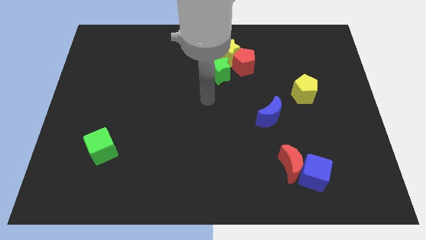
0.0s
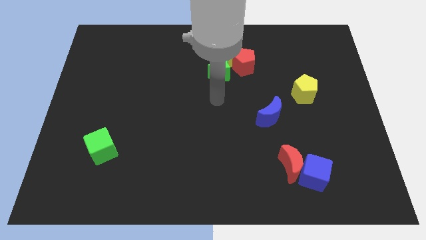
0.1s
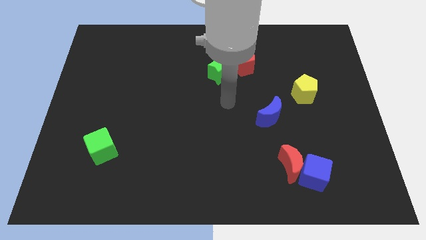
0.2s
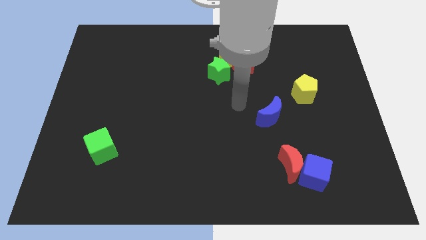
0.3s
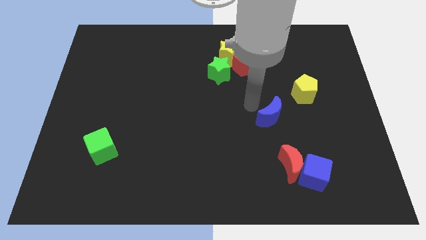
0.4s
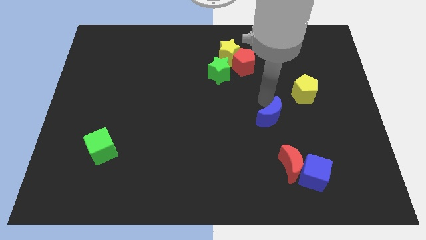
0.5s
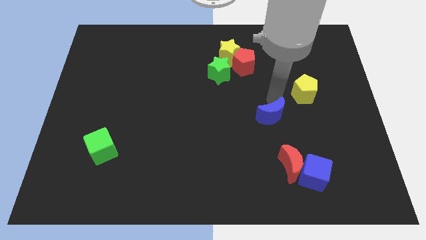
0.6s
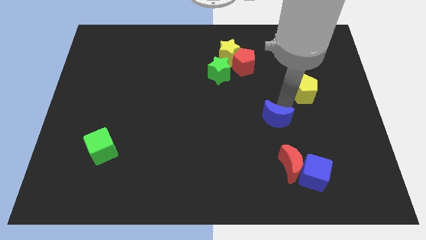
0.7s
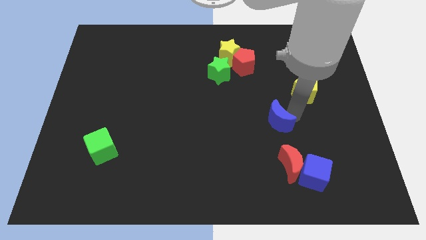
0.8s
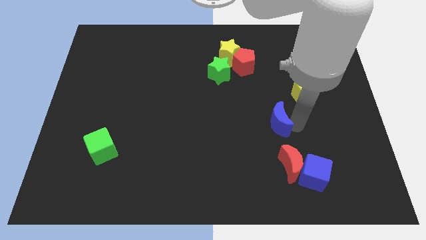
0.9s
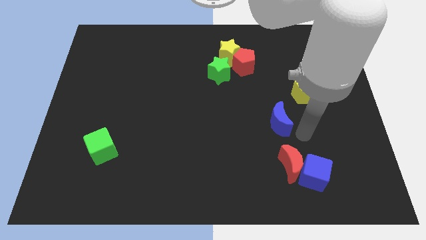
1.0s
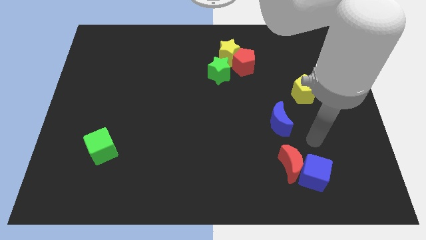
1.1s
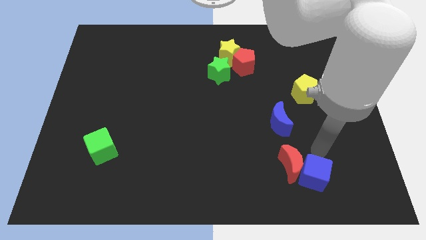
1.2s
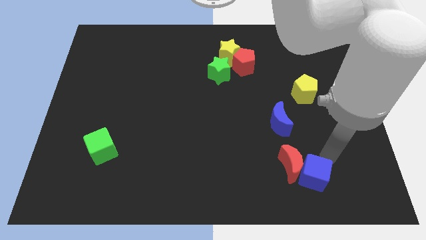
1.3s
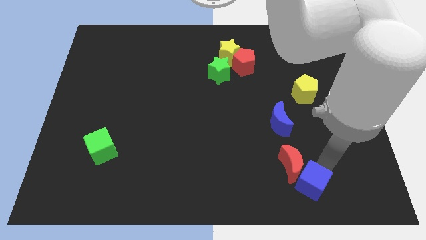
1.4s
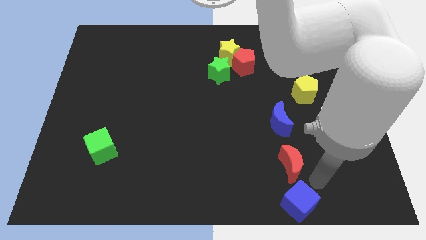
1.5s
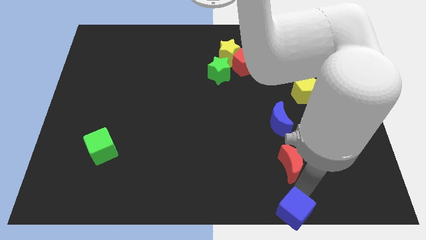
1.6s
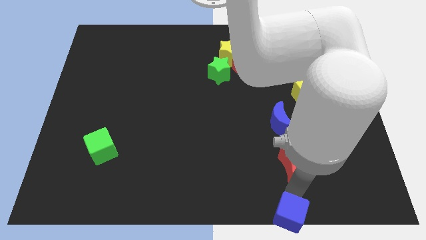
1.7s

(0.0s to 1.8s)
separate the red moon from the blue cube

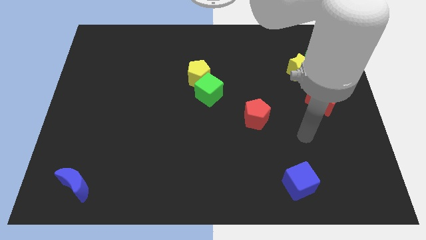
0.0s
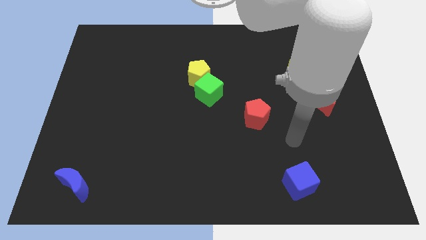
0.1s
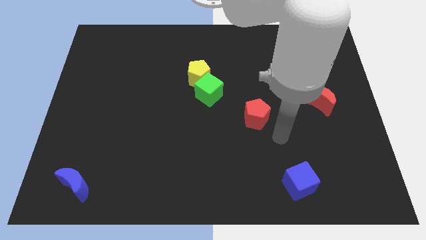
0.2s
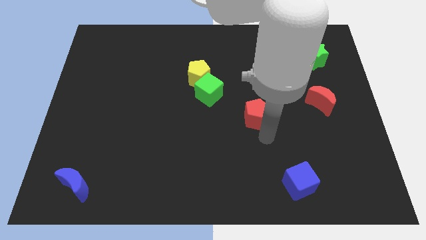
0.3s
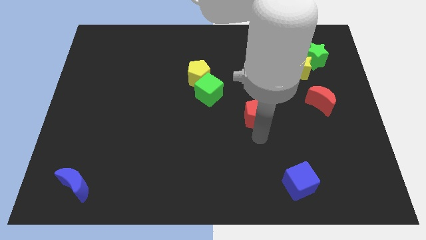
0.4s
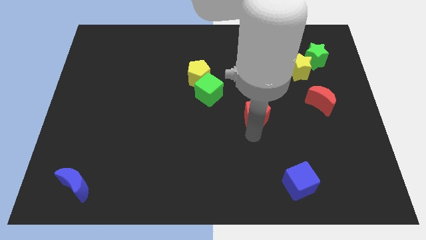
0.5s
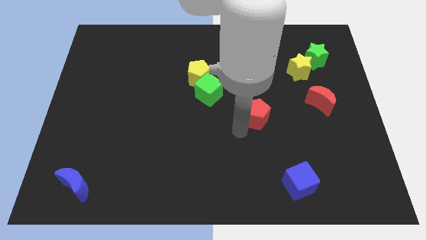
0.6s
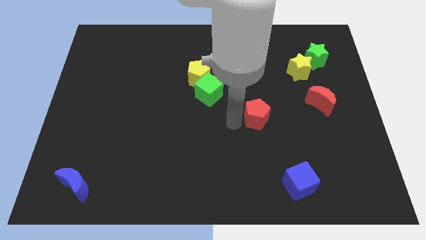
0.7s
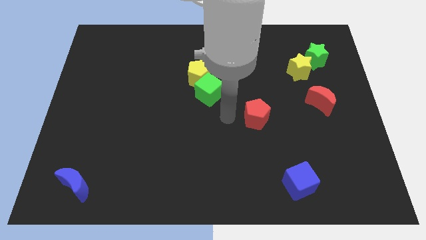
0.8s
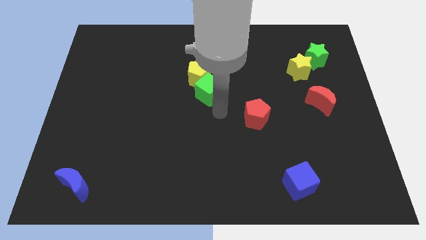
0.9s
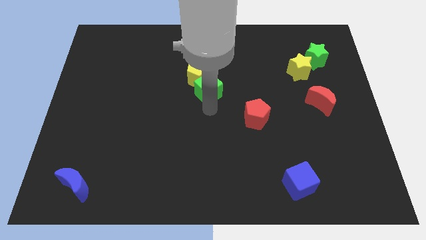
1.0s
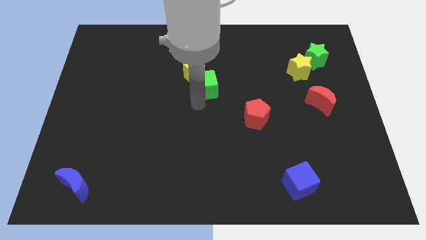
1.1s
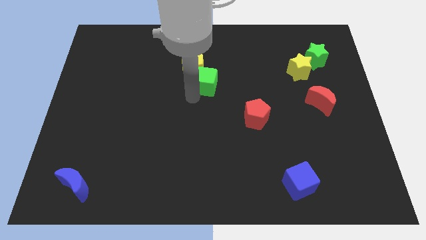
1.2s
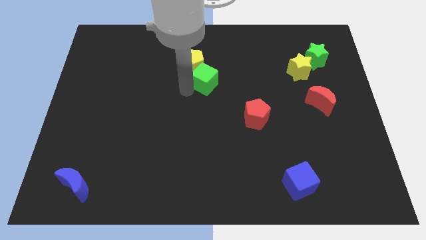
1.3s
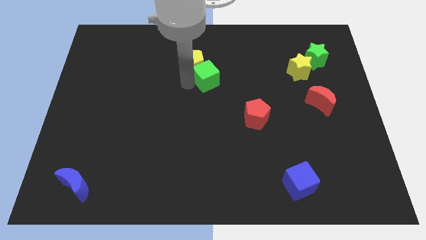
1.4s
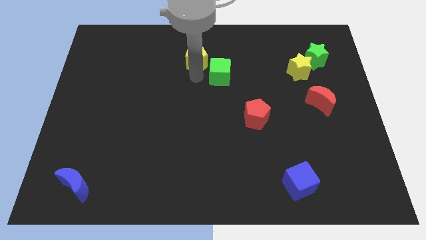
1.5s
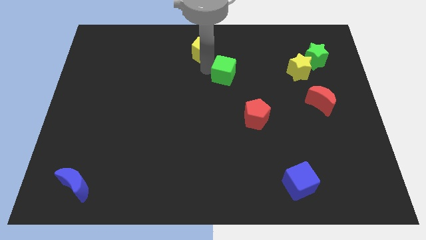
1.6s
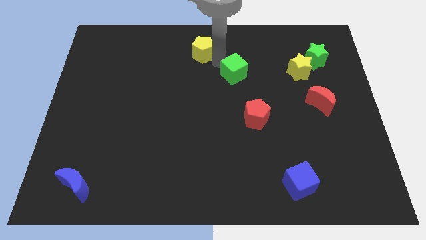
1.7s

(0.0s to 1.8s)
move the green cube away from the yellow pentagon

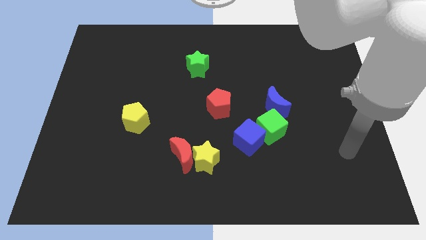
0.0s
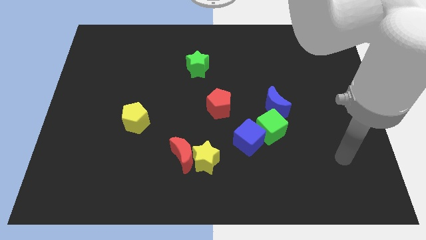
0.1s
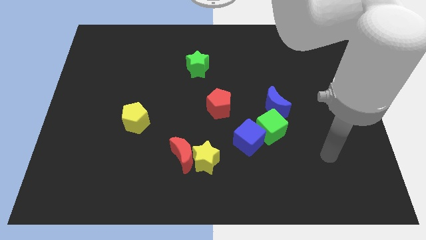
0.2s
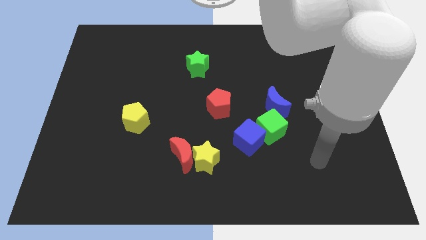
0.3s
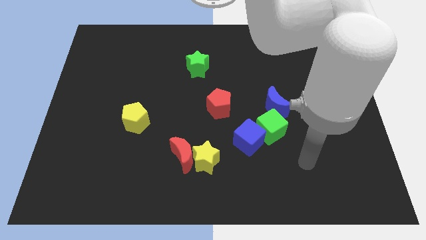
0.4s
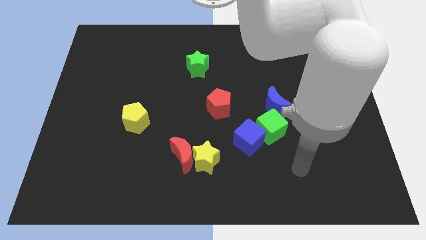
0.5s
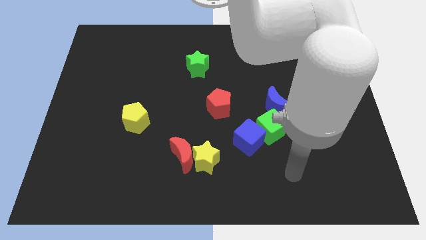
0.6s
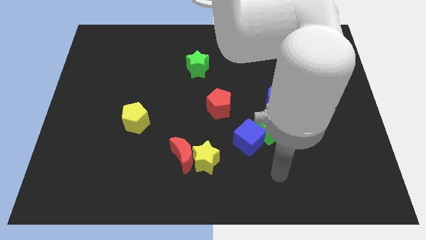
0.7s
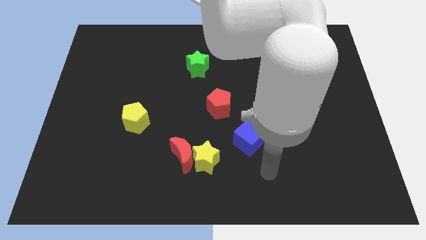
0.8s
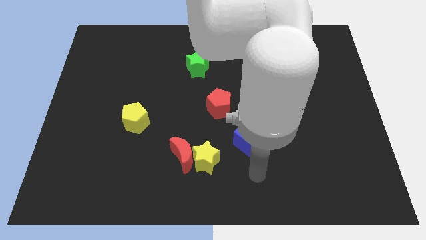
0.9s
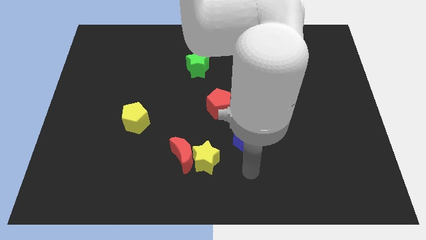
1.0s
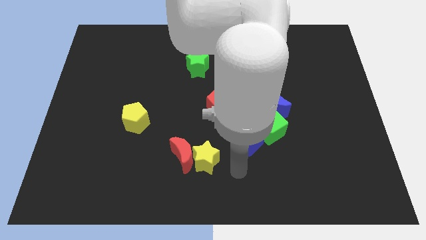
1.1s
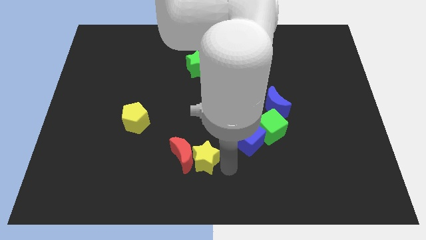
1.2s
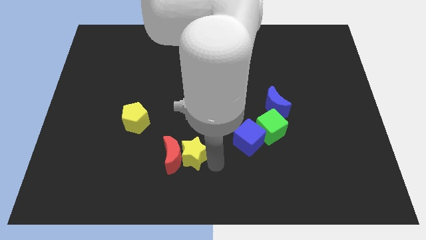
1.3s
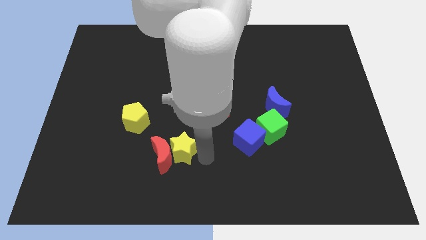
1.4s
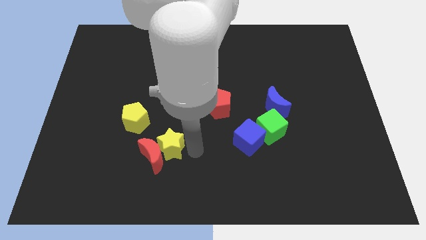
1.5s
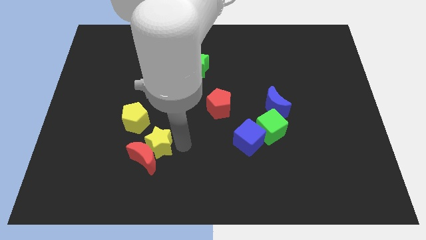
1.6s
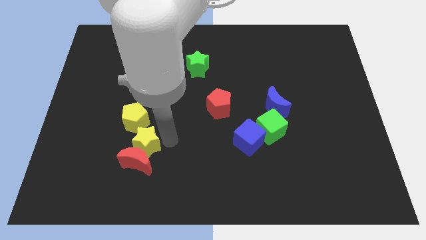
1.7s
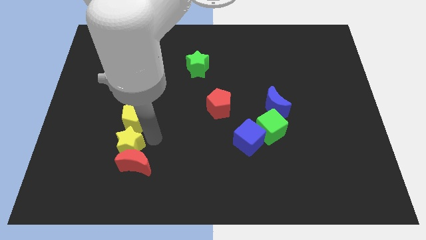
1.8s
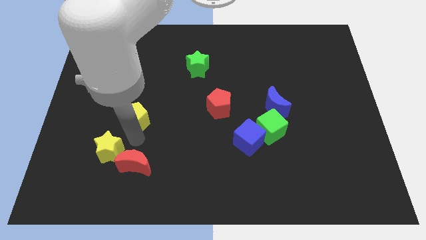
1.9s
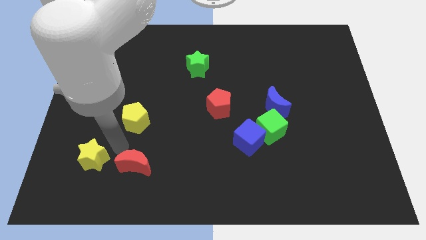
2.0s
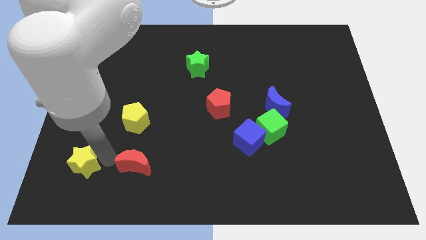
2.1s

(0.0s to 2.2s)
pull the red moon apart from the yellow star

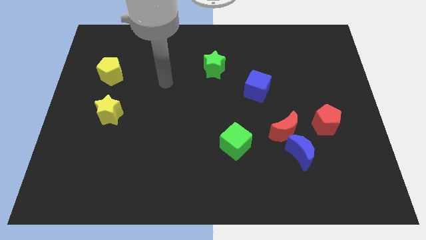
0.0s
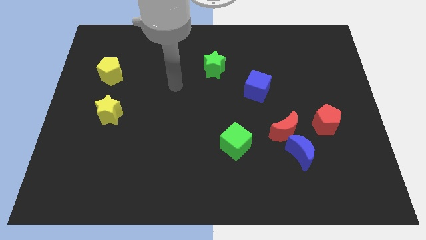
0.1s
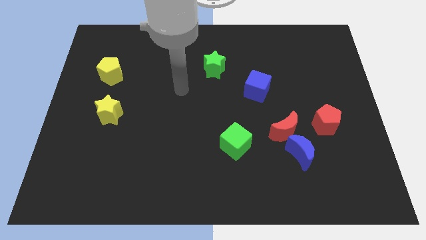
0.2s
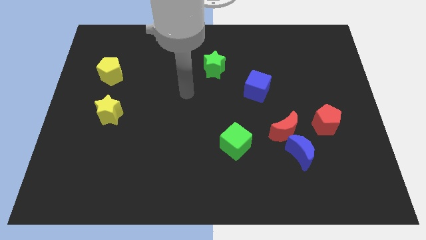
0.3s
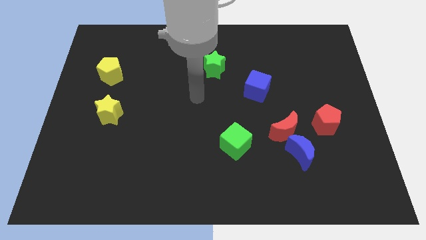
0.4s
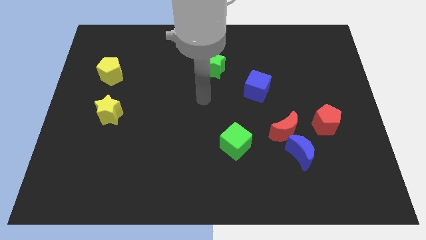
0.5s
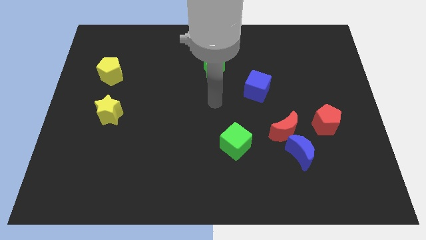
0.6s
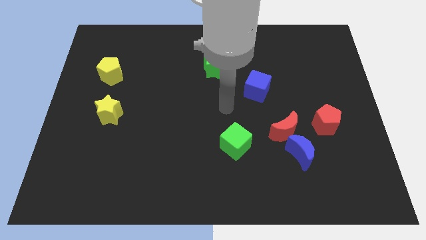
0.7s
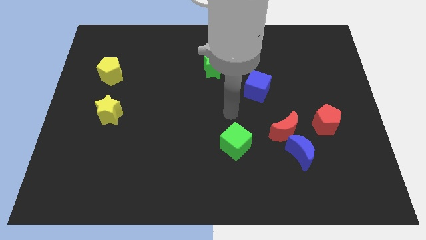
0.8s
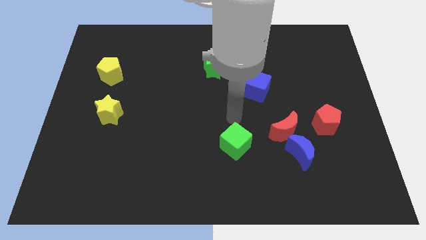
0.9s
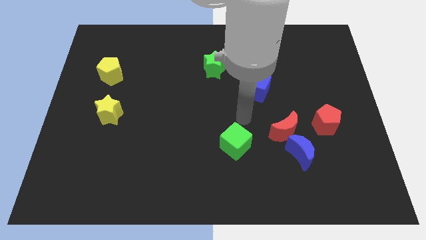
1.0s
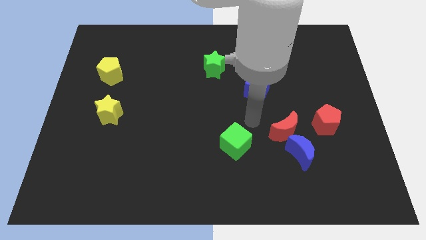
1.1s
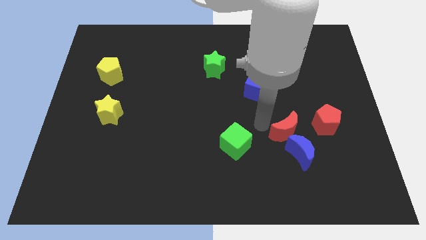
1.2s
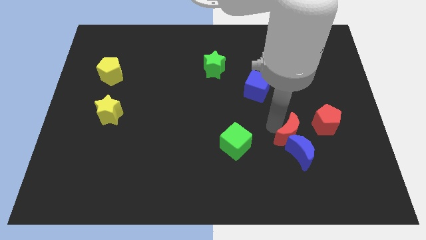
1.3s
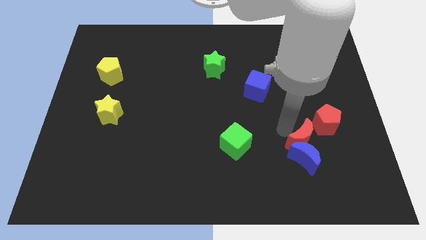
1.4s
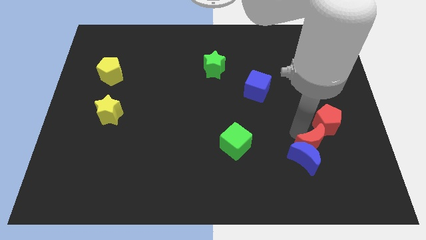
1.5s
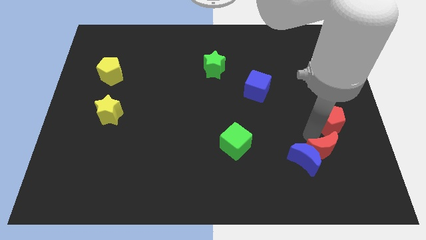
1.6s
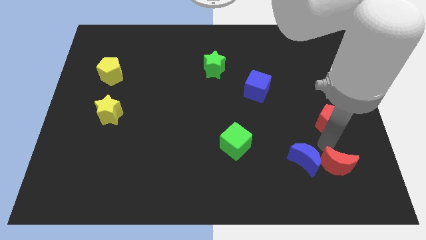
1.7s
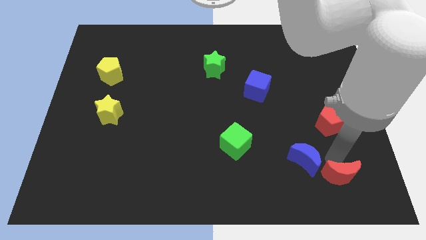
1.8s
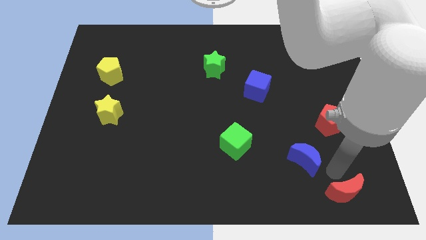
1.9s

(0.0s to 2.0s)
separate the blue moon from the red moon

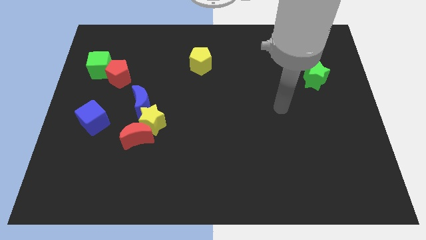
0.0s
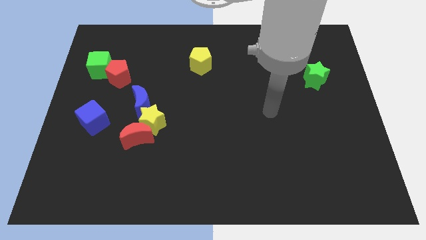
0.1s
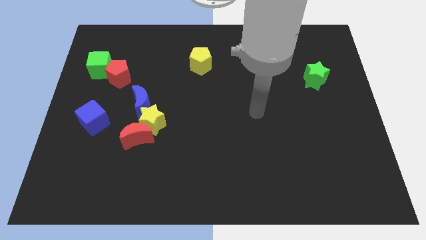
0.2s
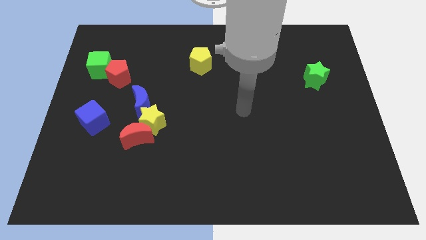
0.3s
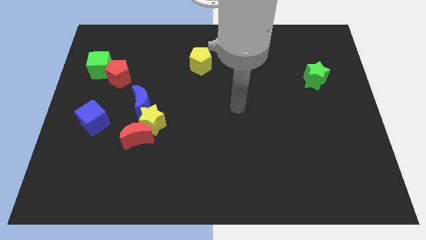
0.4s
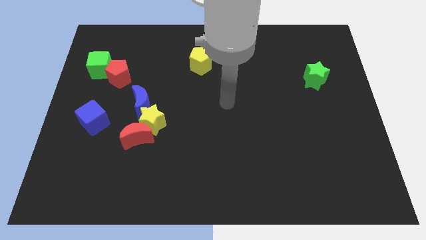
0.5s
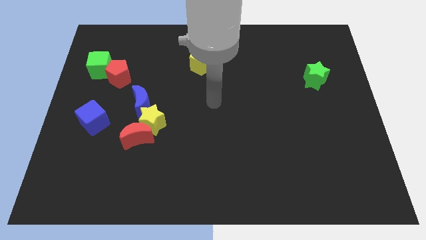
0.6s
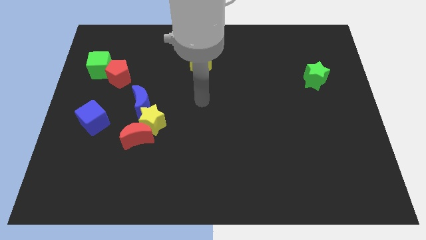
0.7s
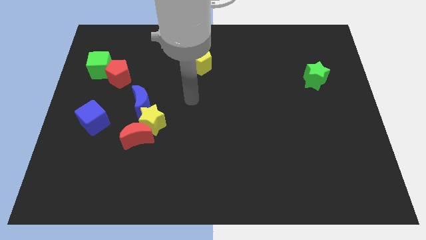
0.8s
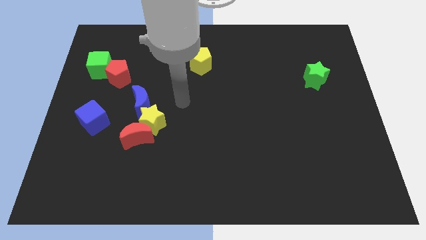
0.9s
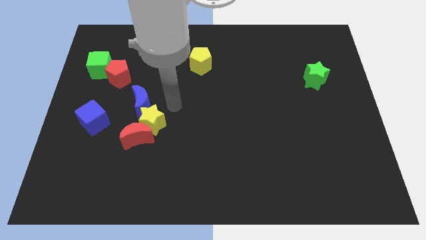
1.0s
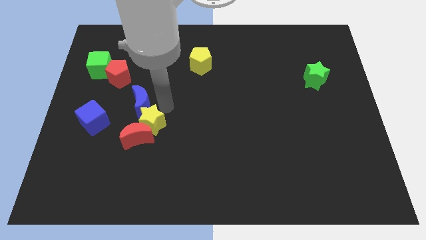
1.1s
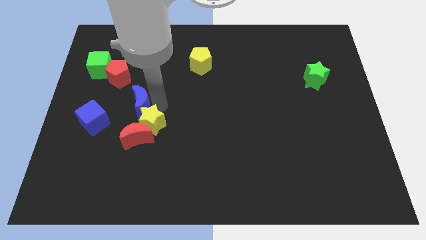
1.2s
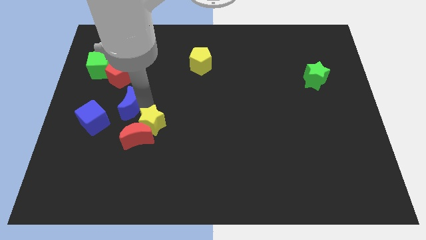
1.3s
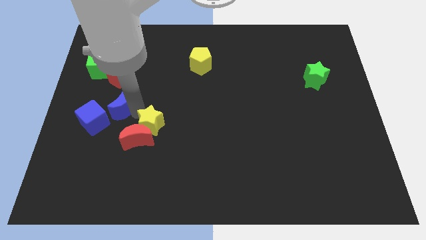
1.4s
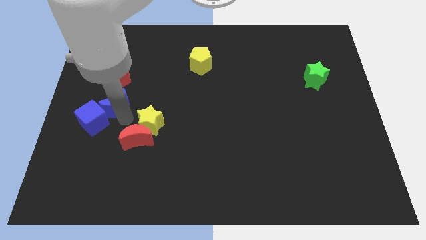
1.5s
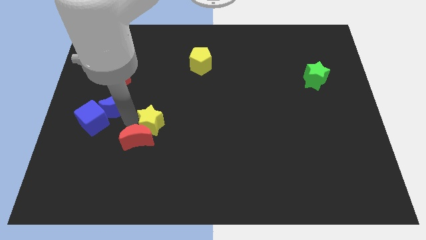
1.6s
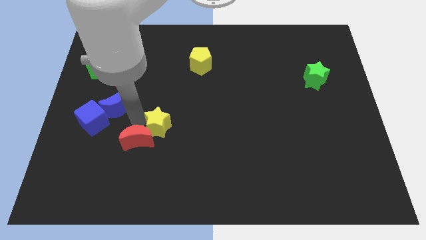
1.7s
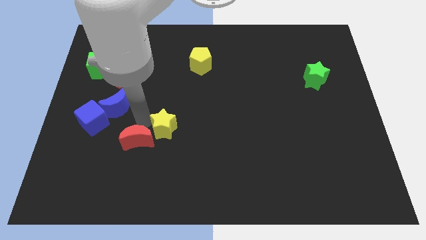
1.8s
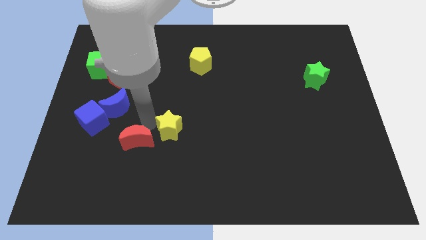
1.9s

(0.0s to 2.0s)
pull the yellow star apart from the red moon and blue moon
